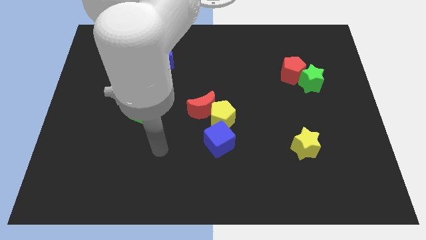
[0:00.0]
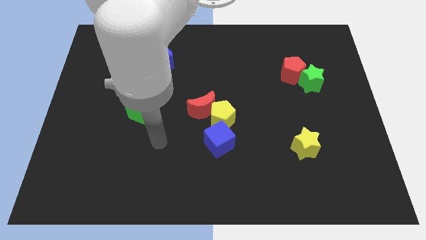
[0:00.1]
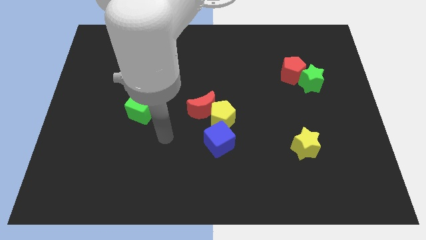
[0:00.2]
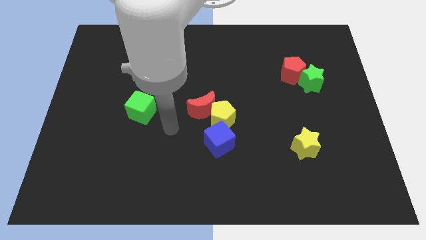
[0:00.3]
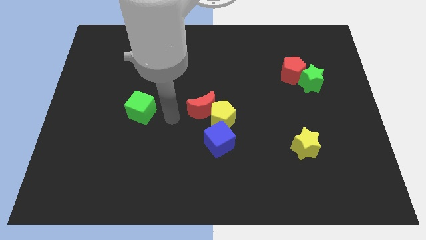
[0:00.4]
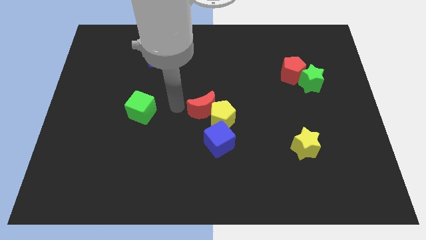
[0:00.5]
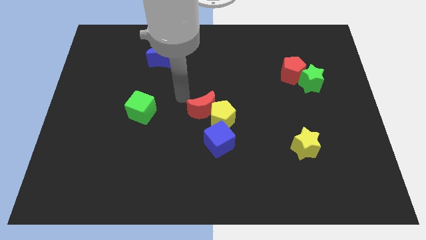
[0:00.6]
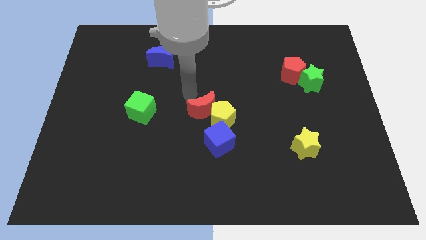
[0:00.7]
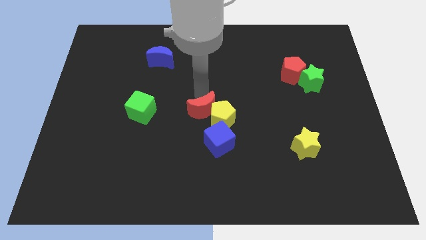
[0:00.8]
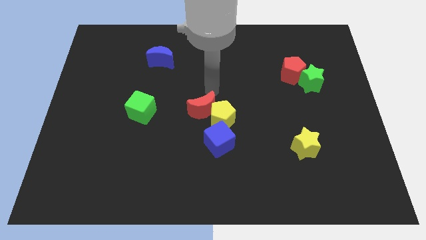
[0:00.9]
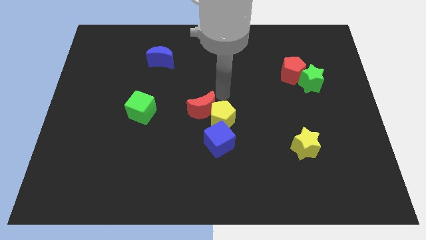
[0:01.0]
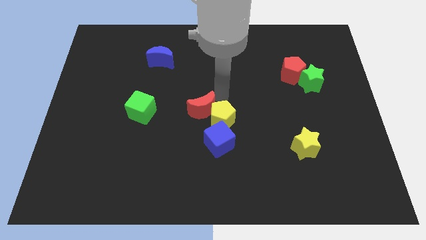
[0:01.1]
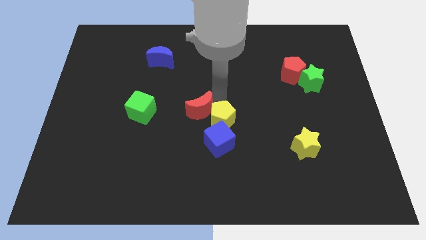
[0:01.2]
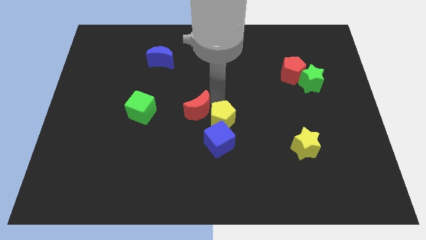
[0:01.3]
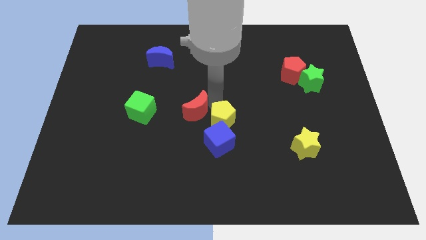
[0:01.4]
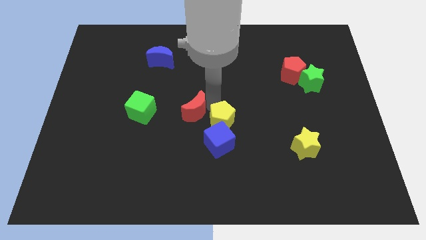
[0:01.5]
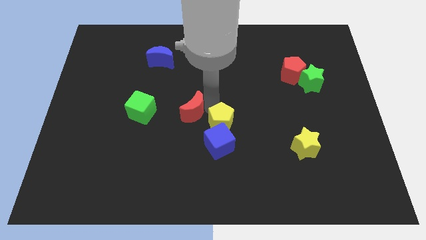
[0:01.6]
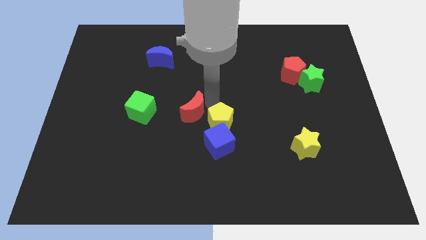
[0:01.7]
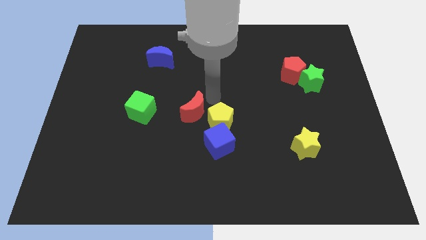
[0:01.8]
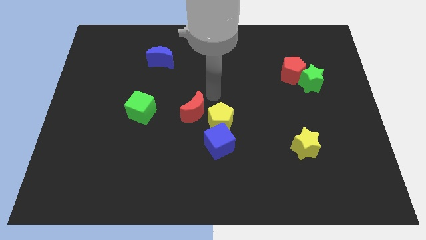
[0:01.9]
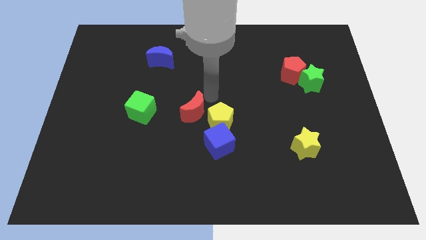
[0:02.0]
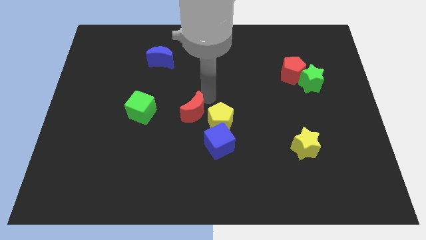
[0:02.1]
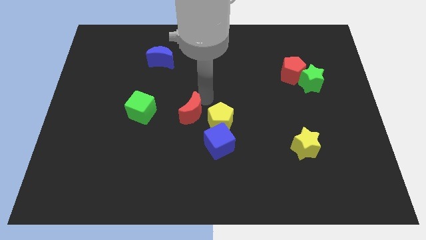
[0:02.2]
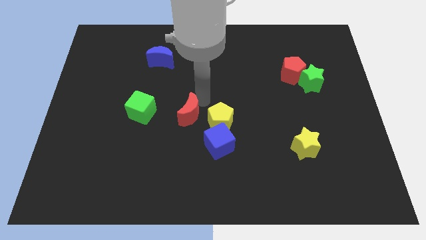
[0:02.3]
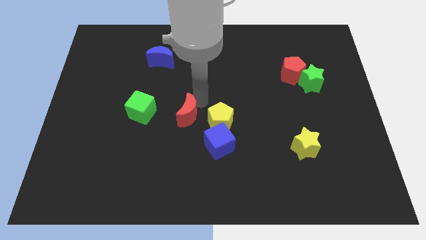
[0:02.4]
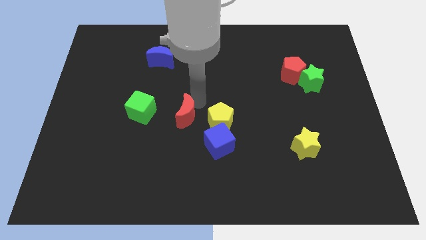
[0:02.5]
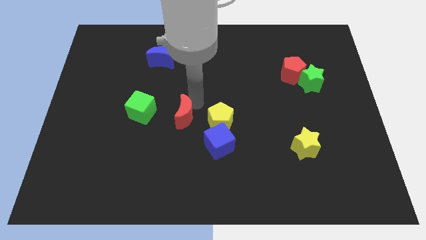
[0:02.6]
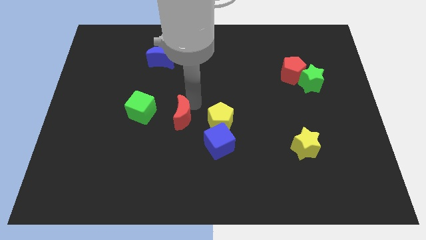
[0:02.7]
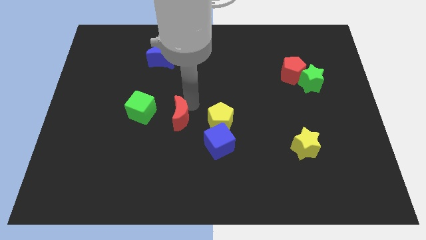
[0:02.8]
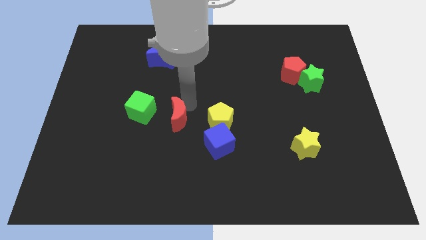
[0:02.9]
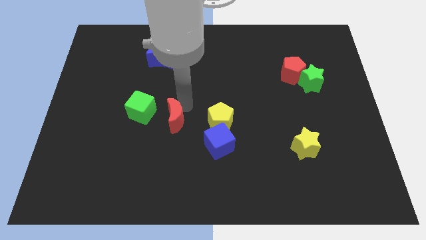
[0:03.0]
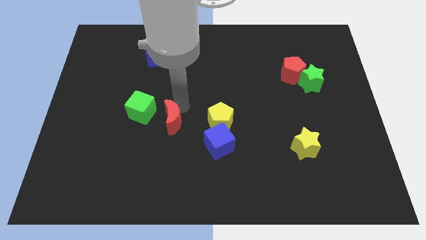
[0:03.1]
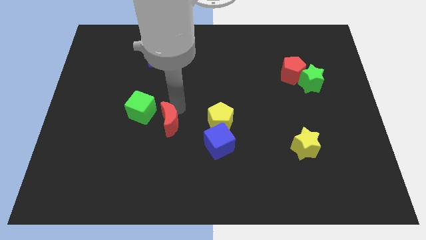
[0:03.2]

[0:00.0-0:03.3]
move the red moon a bit down and left

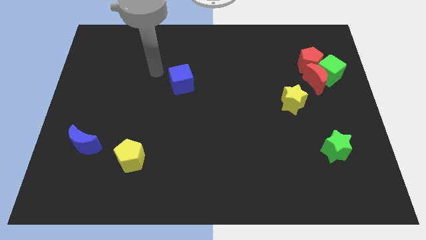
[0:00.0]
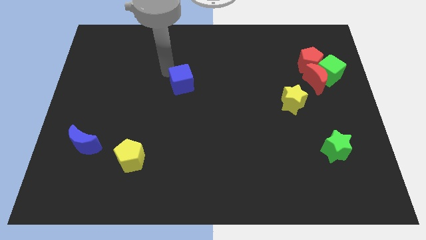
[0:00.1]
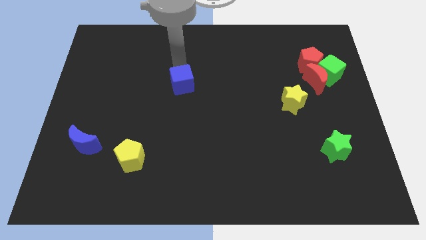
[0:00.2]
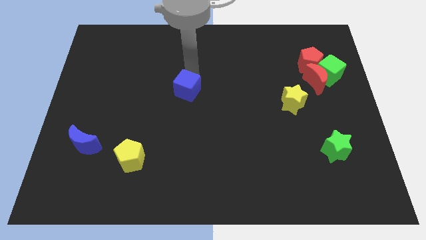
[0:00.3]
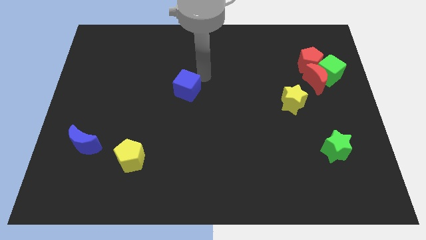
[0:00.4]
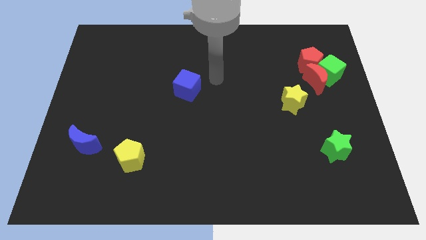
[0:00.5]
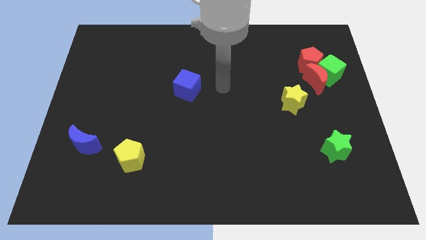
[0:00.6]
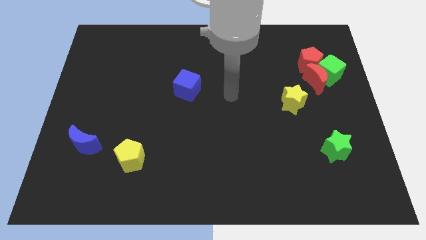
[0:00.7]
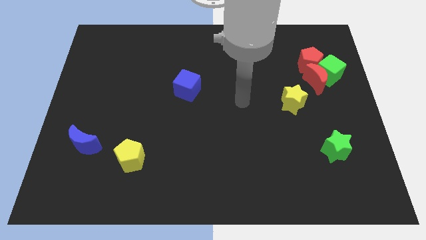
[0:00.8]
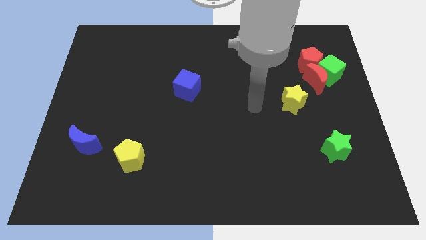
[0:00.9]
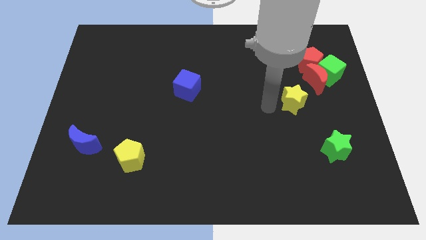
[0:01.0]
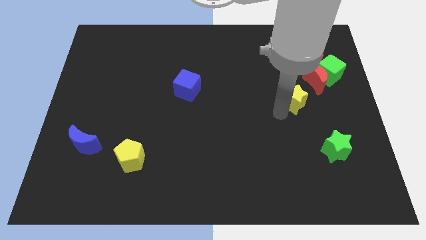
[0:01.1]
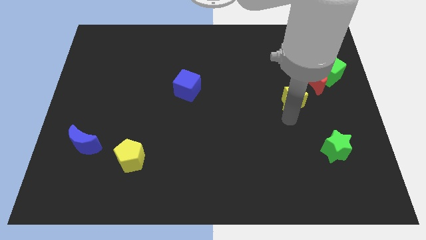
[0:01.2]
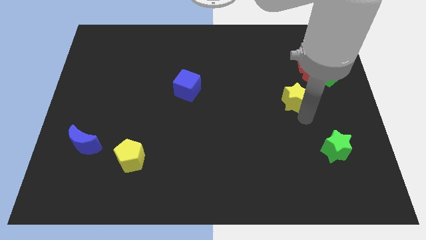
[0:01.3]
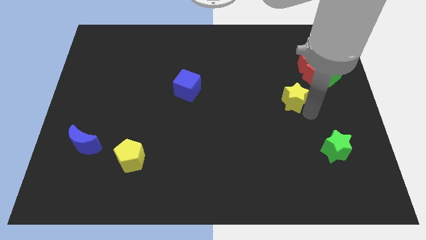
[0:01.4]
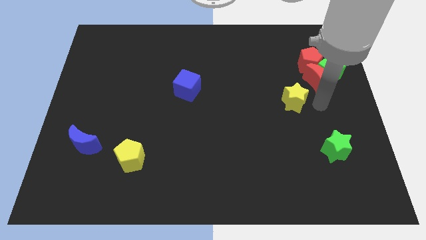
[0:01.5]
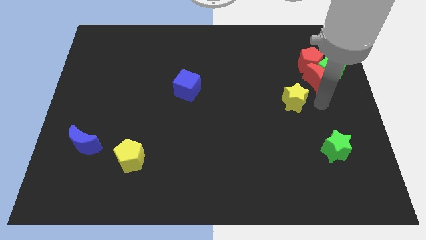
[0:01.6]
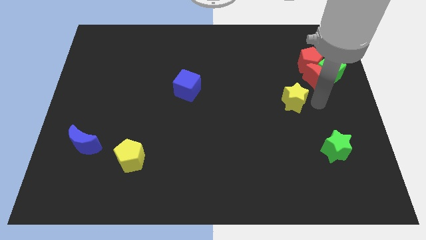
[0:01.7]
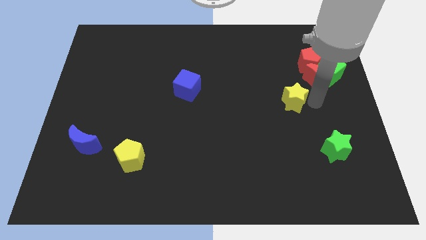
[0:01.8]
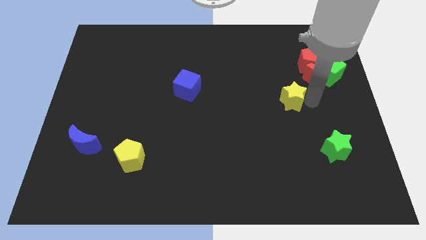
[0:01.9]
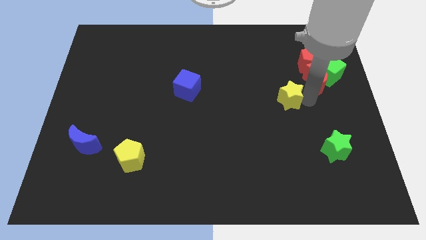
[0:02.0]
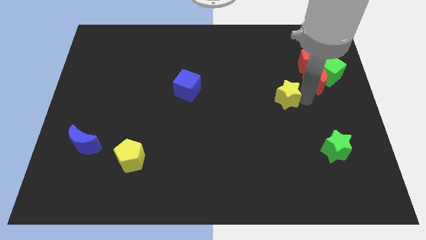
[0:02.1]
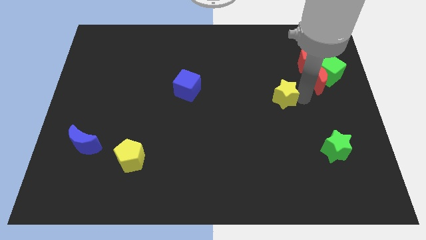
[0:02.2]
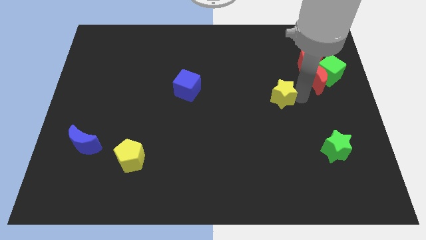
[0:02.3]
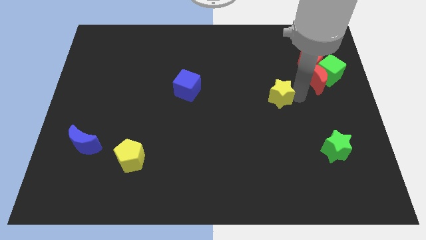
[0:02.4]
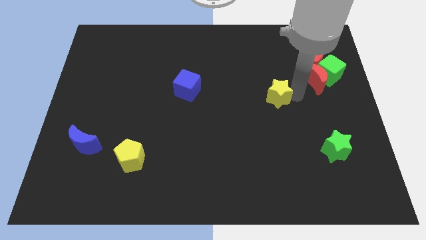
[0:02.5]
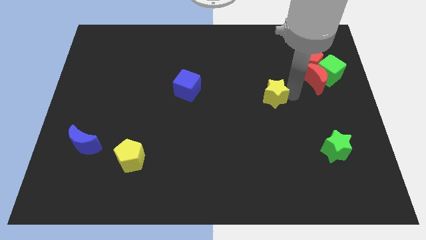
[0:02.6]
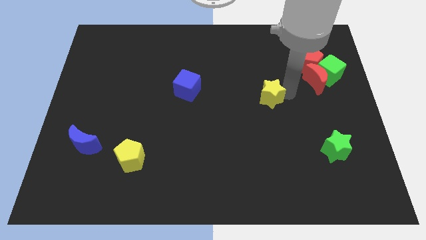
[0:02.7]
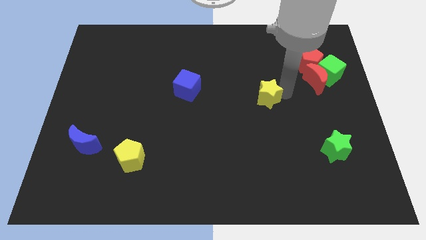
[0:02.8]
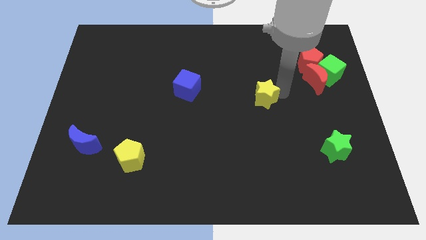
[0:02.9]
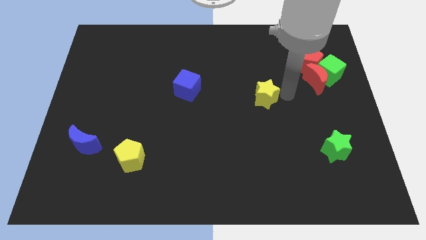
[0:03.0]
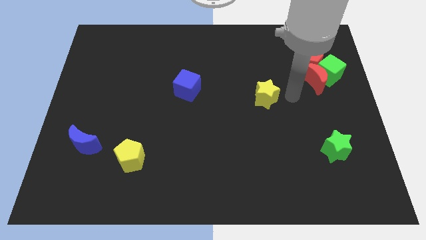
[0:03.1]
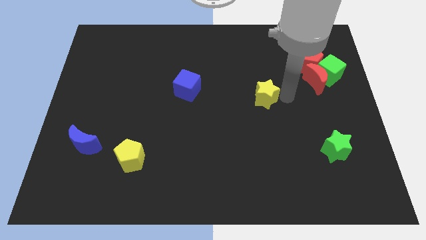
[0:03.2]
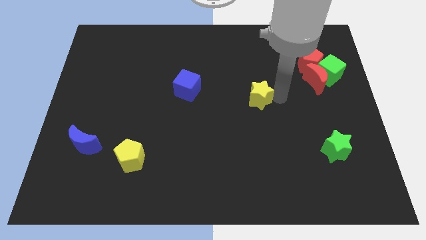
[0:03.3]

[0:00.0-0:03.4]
slightly move the yellow star to the left

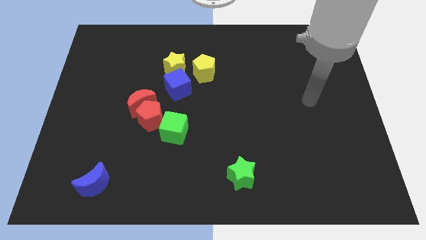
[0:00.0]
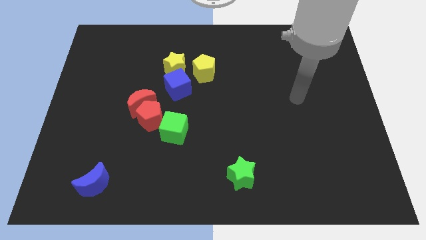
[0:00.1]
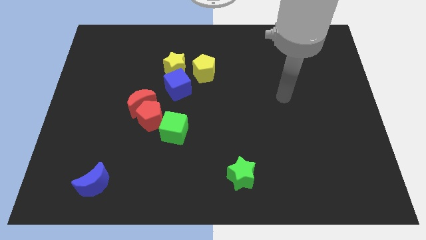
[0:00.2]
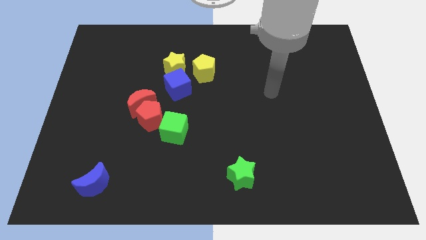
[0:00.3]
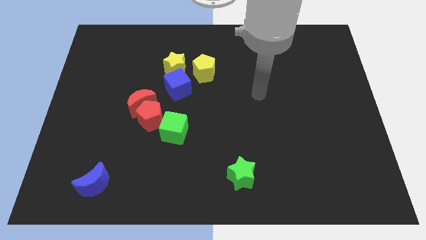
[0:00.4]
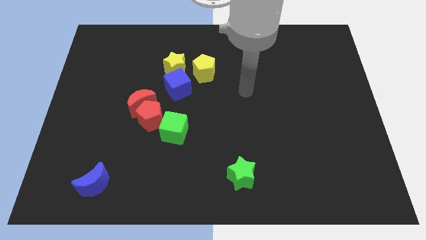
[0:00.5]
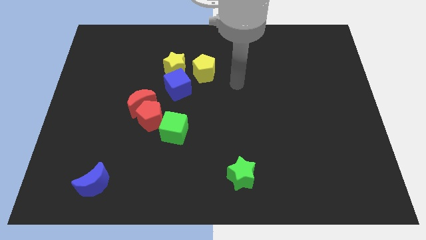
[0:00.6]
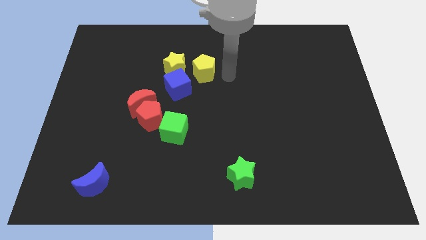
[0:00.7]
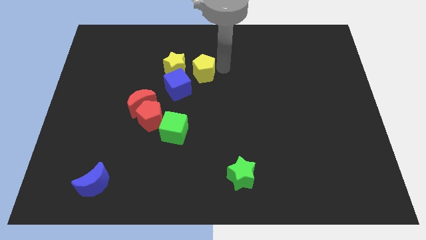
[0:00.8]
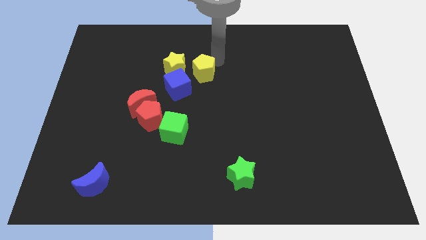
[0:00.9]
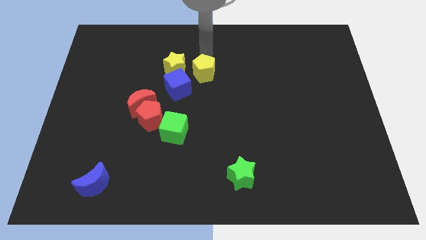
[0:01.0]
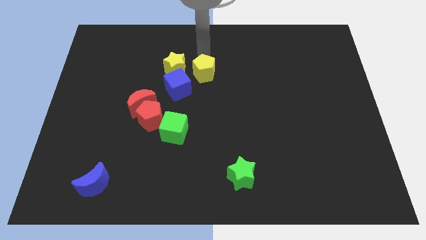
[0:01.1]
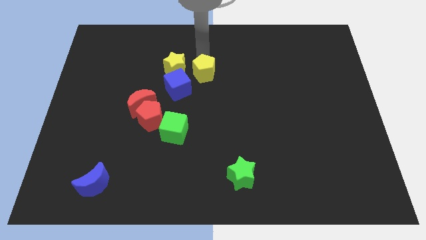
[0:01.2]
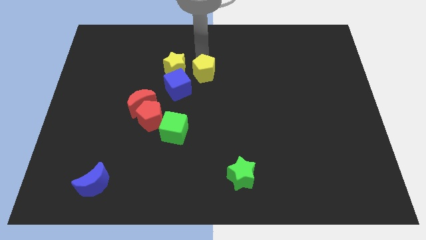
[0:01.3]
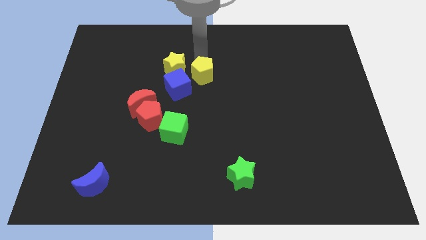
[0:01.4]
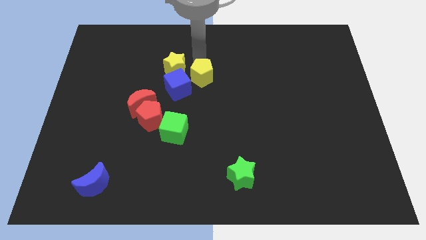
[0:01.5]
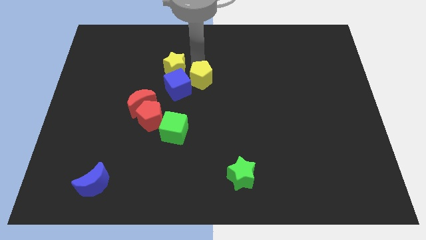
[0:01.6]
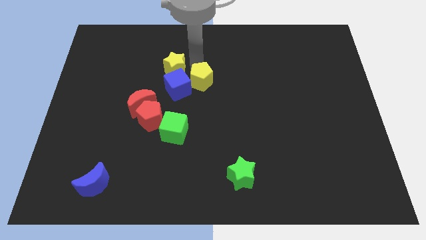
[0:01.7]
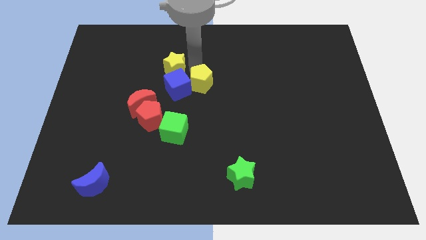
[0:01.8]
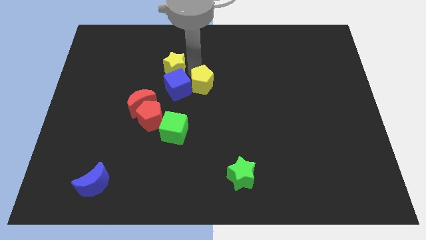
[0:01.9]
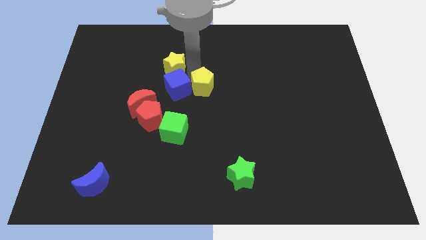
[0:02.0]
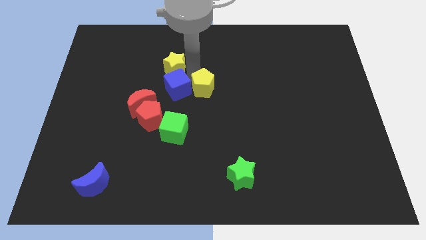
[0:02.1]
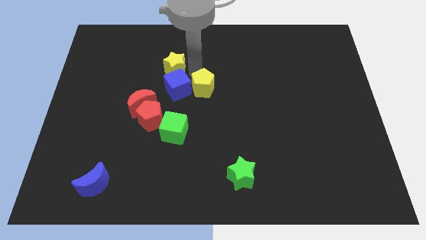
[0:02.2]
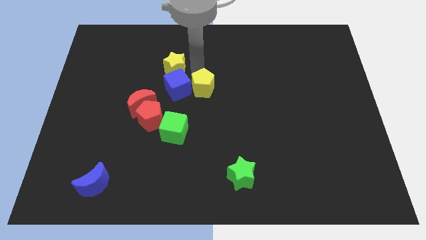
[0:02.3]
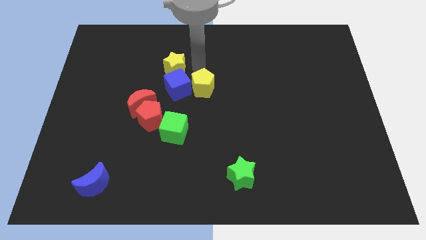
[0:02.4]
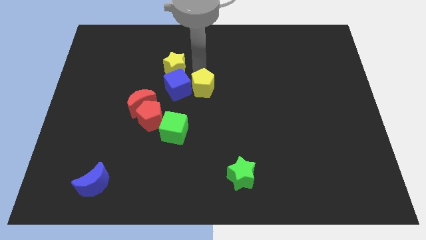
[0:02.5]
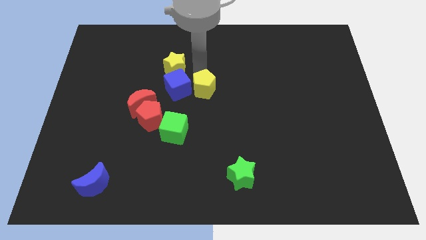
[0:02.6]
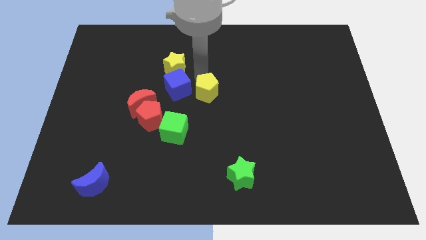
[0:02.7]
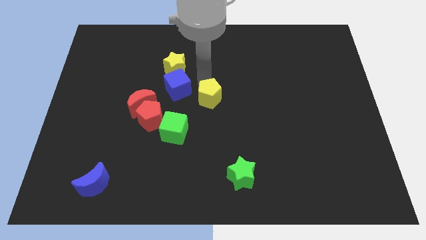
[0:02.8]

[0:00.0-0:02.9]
move the yellow pentagon down a little bit
